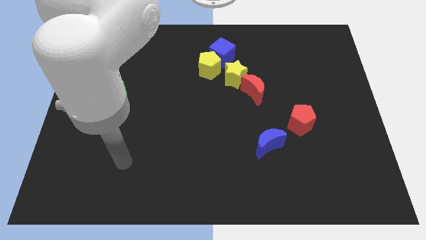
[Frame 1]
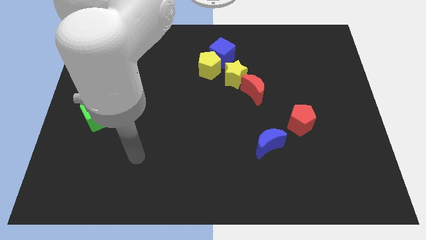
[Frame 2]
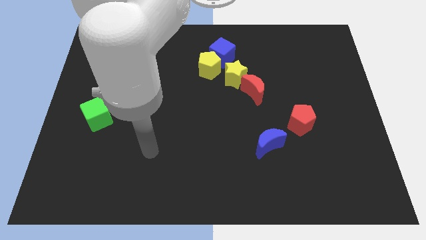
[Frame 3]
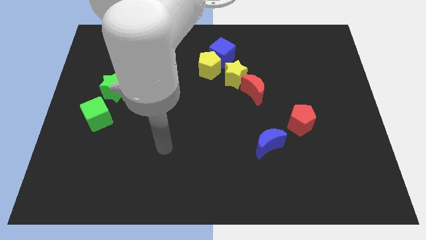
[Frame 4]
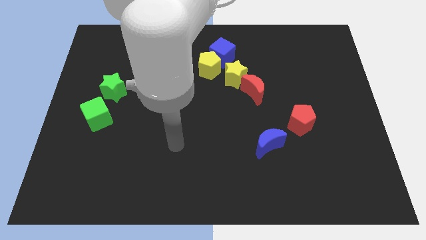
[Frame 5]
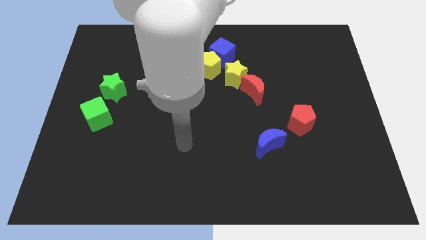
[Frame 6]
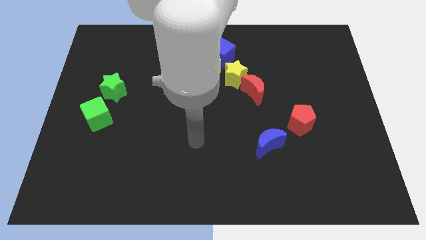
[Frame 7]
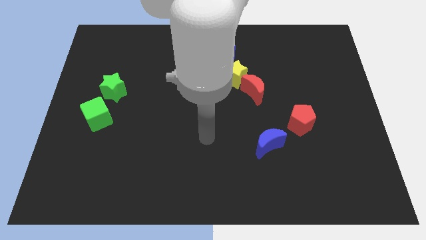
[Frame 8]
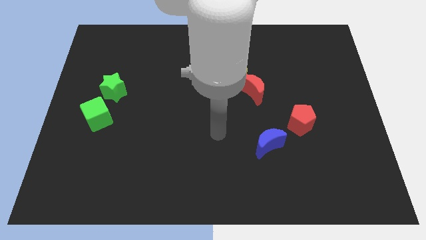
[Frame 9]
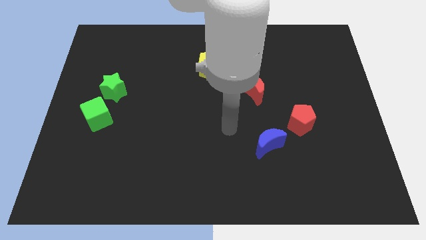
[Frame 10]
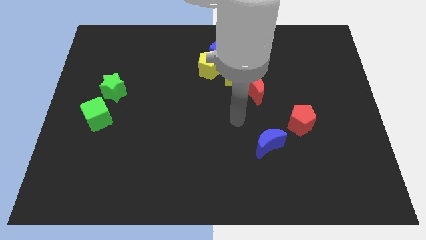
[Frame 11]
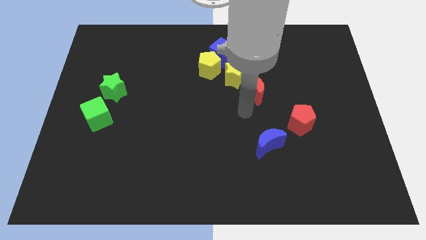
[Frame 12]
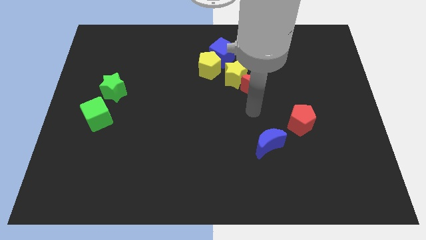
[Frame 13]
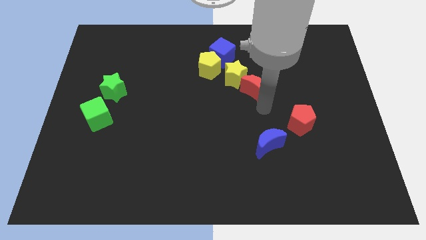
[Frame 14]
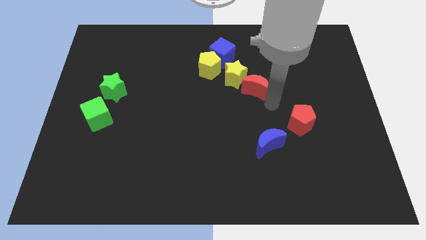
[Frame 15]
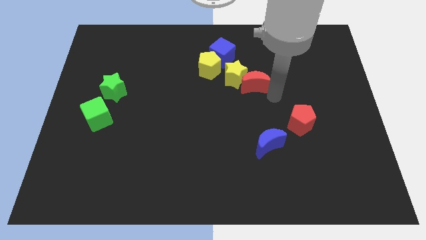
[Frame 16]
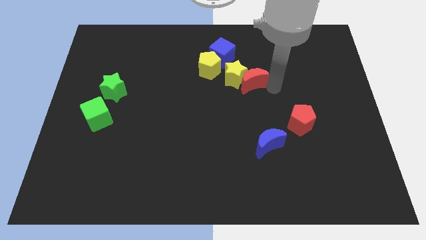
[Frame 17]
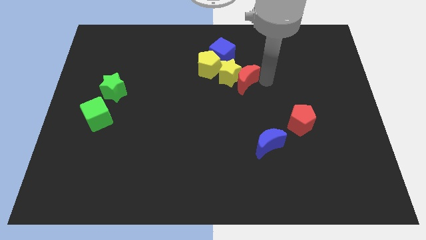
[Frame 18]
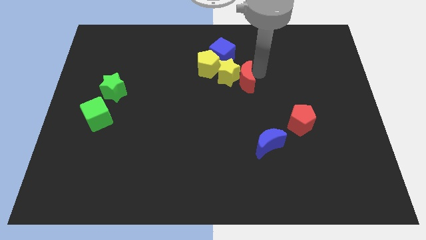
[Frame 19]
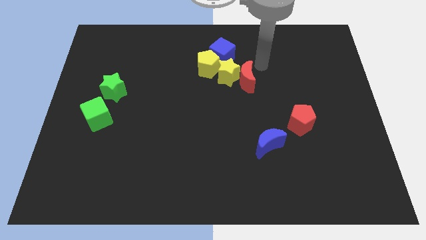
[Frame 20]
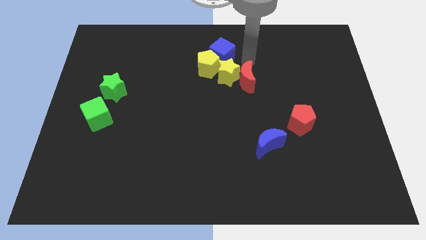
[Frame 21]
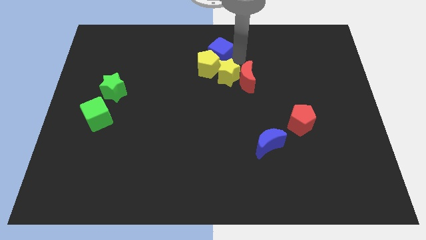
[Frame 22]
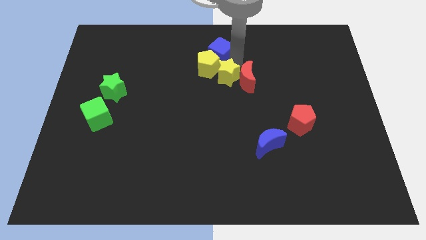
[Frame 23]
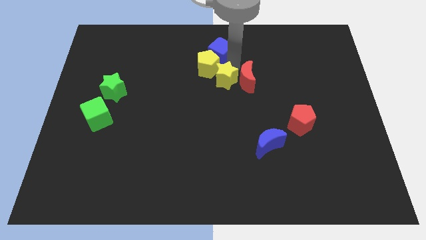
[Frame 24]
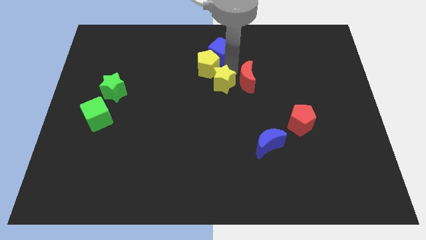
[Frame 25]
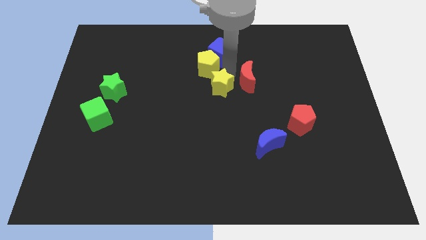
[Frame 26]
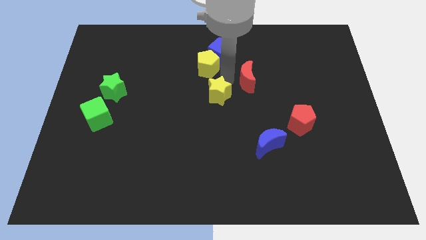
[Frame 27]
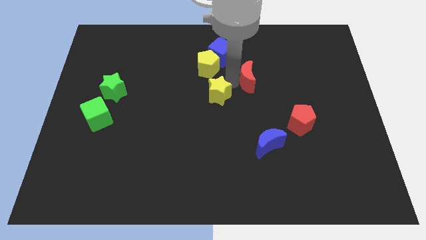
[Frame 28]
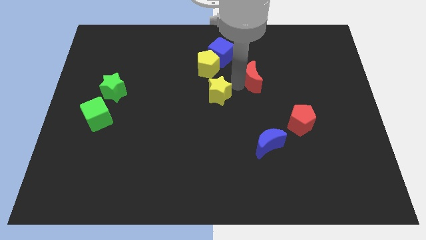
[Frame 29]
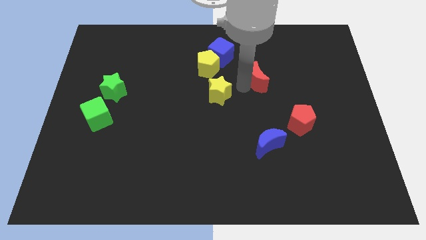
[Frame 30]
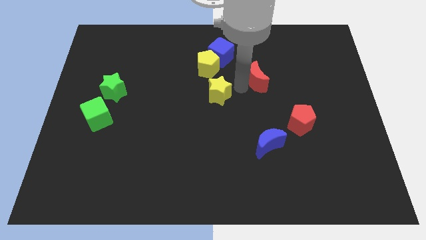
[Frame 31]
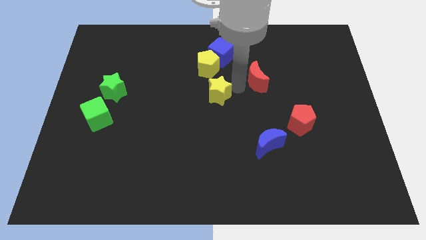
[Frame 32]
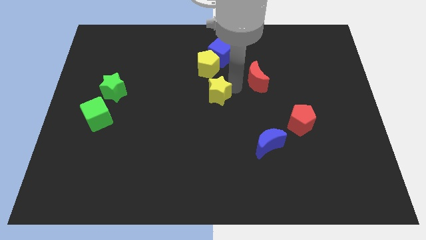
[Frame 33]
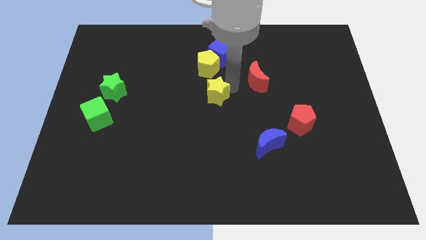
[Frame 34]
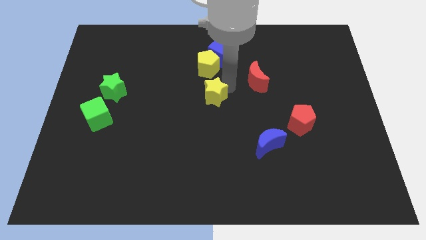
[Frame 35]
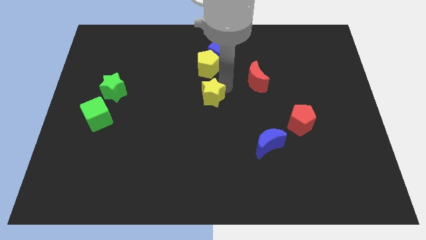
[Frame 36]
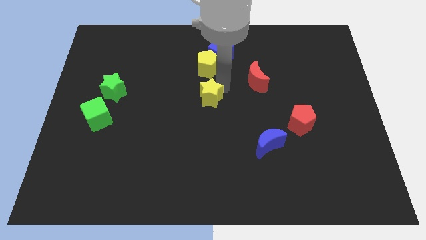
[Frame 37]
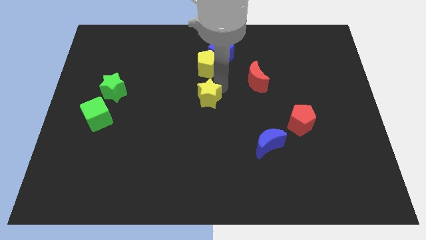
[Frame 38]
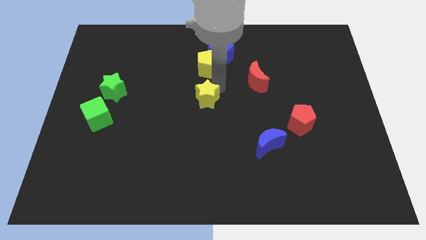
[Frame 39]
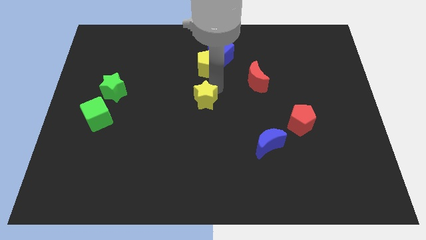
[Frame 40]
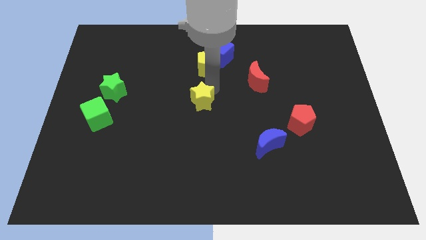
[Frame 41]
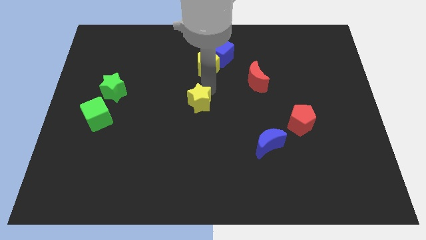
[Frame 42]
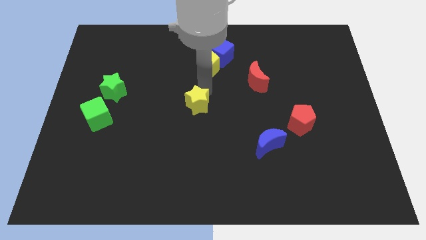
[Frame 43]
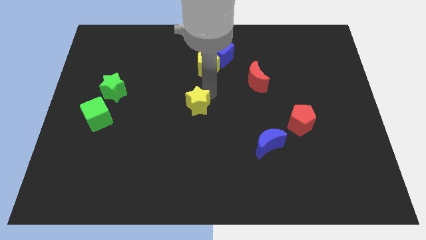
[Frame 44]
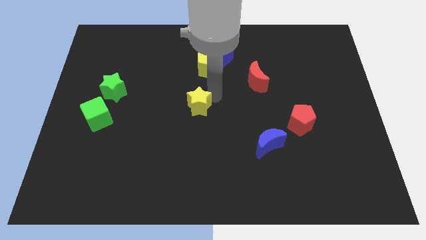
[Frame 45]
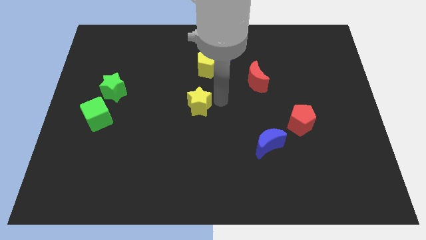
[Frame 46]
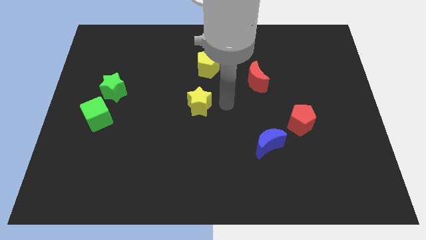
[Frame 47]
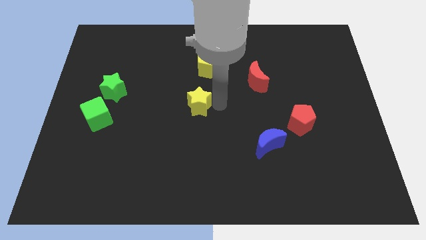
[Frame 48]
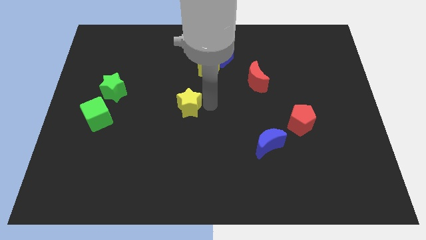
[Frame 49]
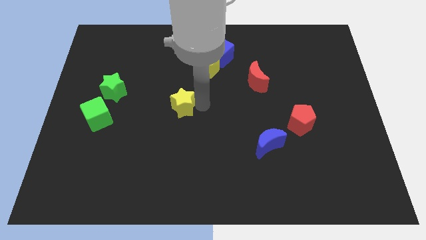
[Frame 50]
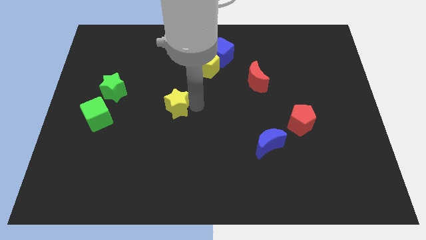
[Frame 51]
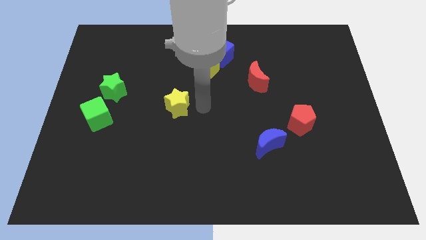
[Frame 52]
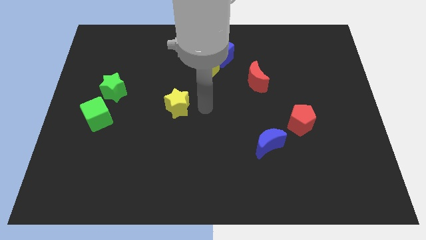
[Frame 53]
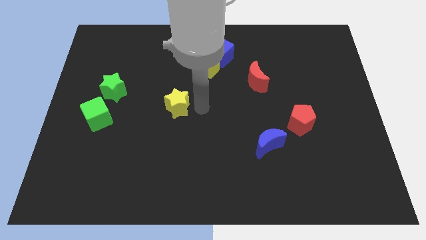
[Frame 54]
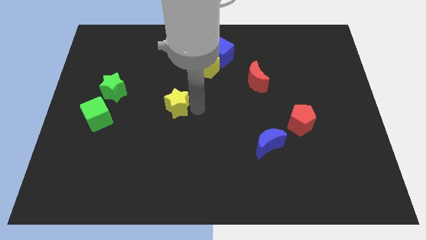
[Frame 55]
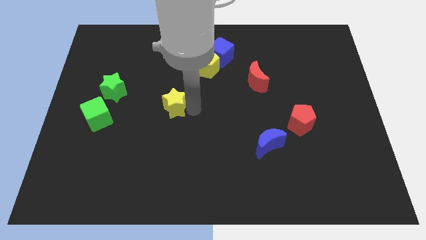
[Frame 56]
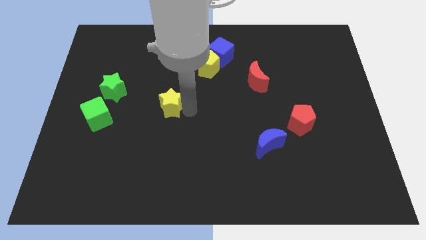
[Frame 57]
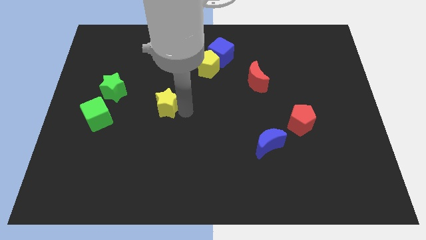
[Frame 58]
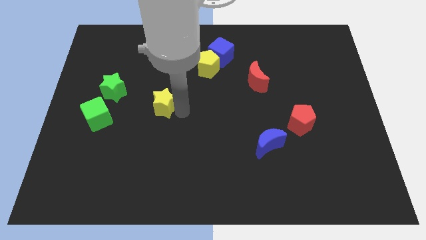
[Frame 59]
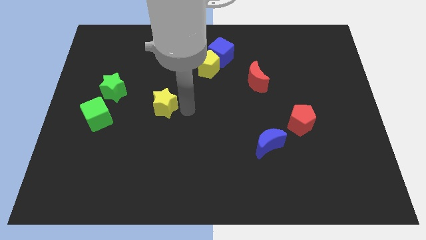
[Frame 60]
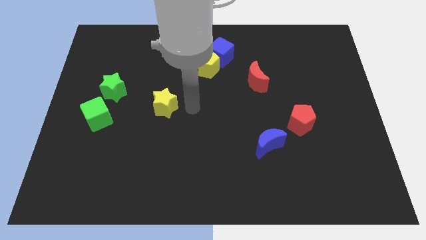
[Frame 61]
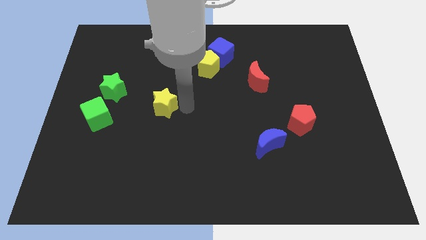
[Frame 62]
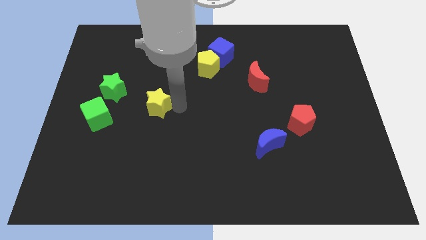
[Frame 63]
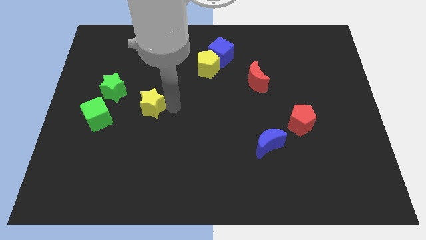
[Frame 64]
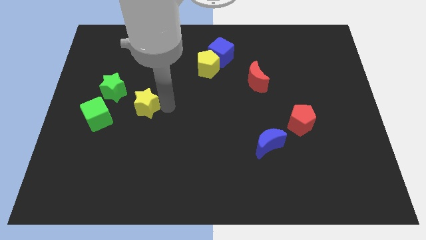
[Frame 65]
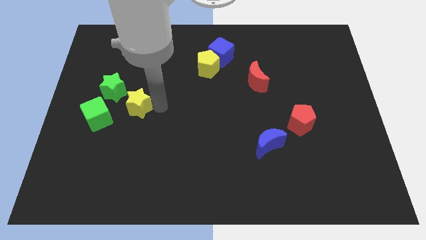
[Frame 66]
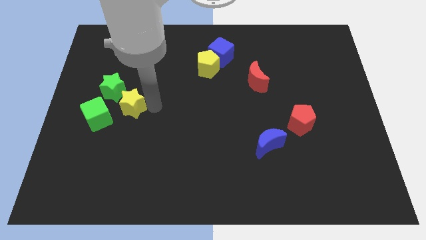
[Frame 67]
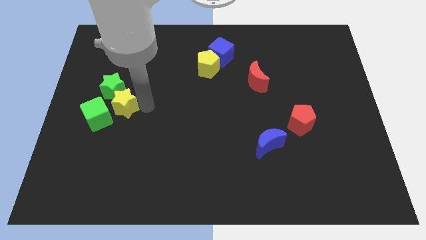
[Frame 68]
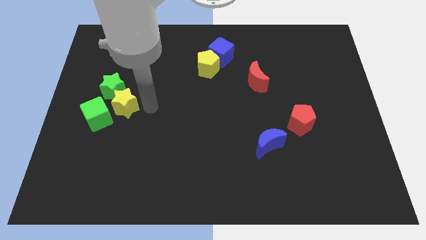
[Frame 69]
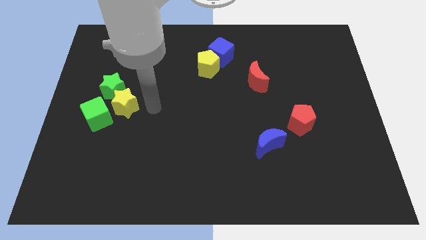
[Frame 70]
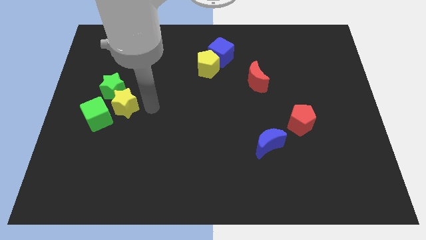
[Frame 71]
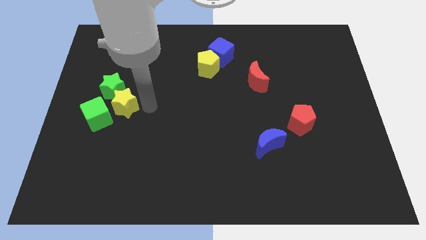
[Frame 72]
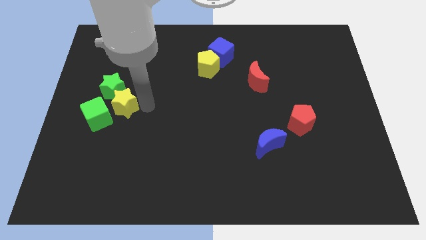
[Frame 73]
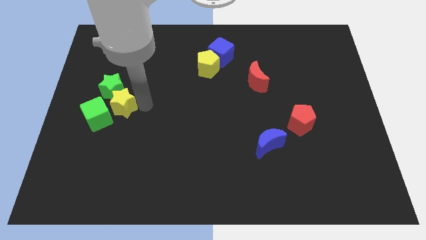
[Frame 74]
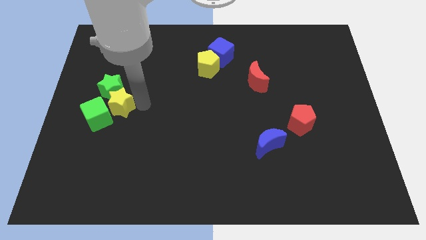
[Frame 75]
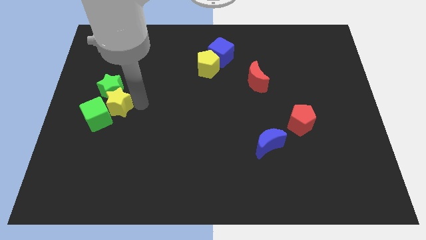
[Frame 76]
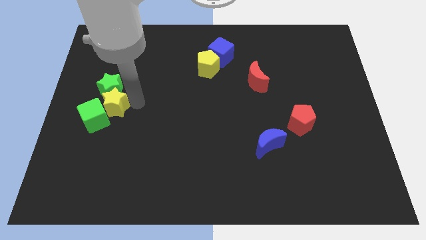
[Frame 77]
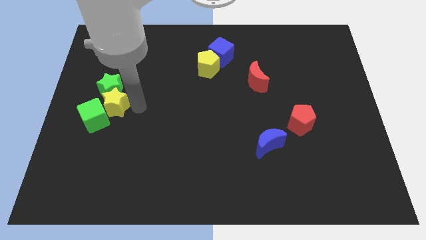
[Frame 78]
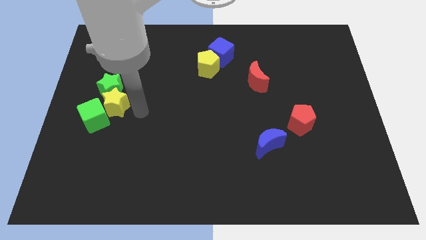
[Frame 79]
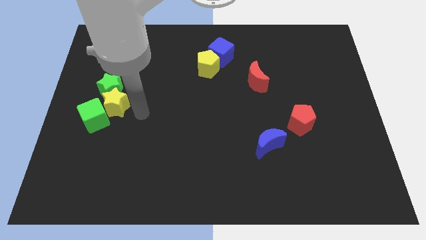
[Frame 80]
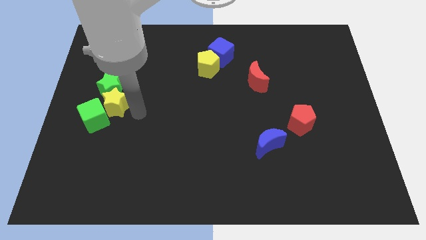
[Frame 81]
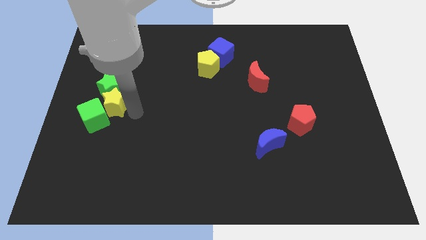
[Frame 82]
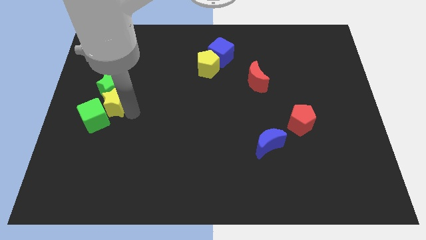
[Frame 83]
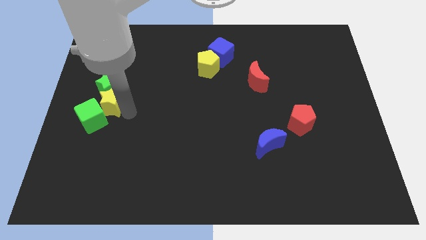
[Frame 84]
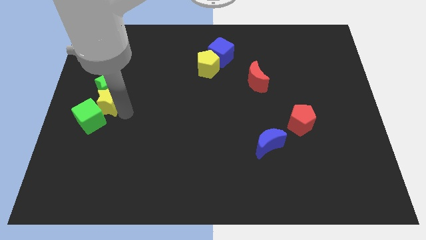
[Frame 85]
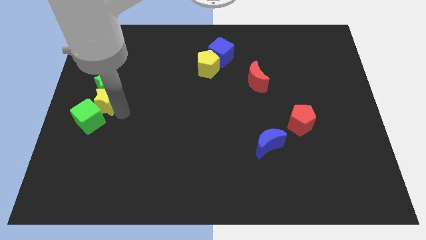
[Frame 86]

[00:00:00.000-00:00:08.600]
slide the yellow star to the center left
